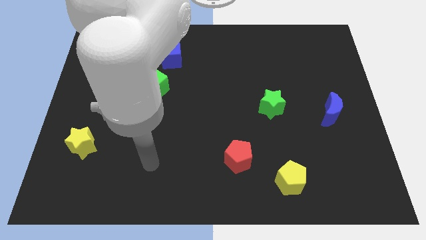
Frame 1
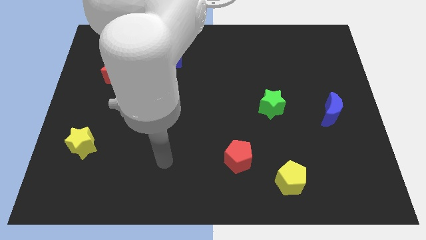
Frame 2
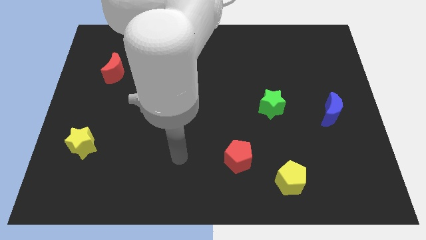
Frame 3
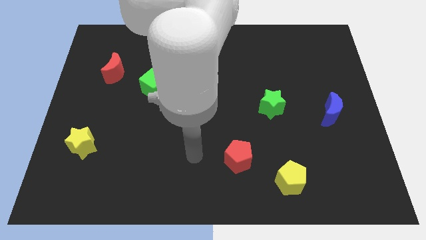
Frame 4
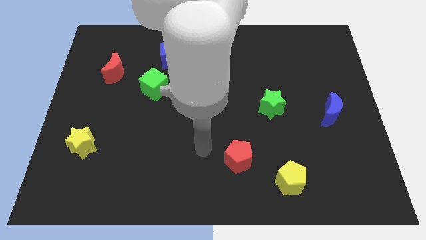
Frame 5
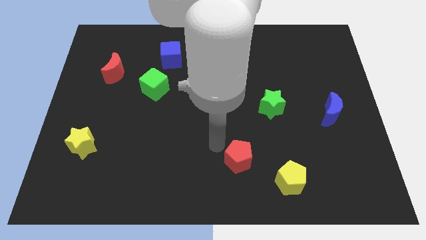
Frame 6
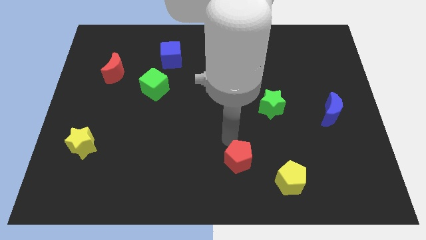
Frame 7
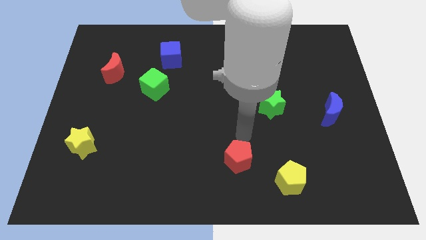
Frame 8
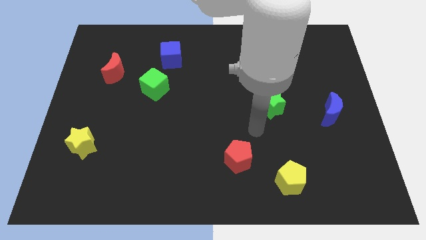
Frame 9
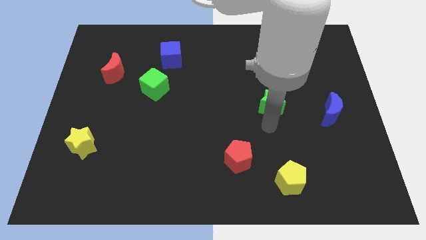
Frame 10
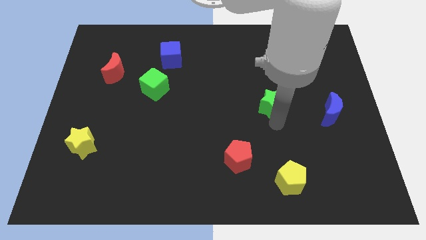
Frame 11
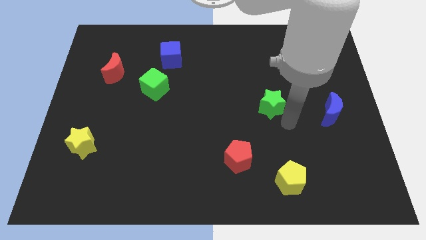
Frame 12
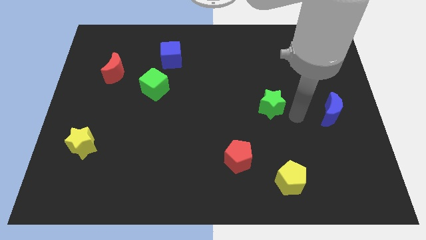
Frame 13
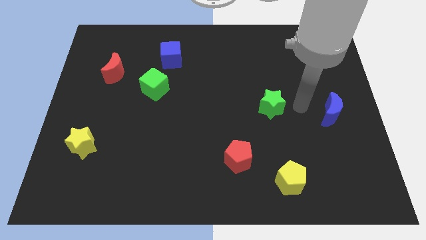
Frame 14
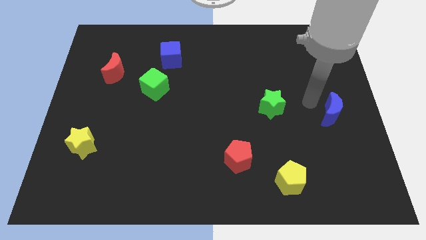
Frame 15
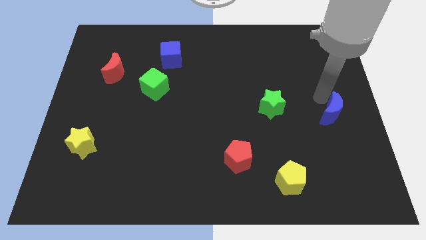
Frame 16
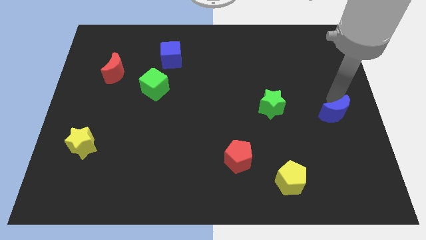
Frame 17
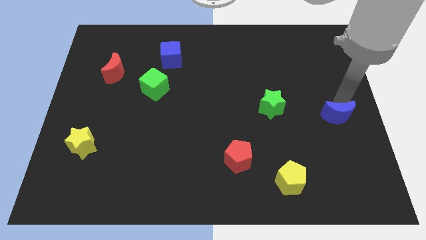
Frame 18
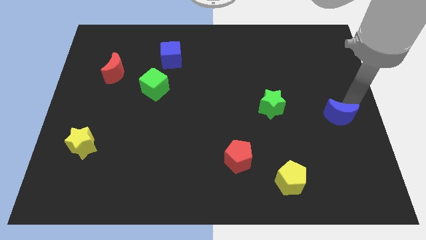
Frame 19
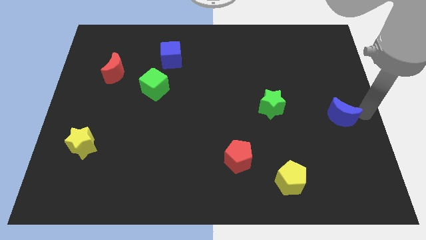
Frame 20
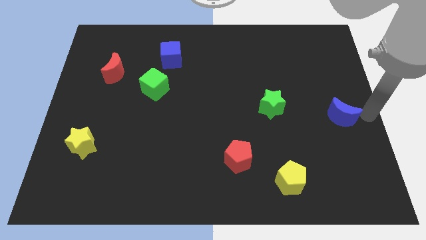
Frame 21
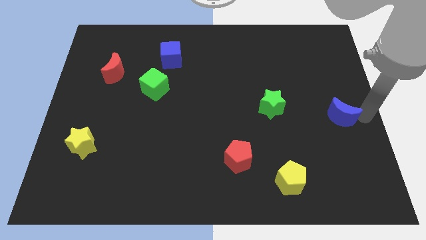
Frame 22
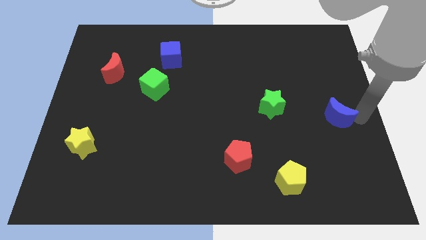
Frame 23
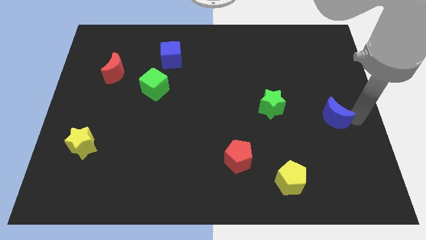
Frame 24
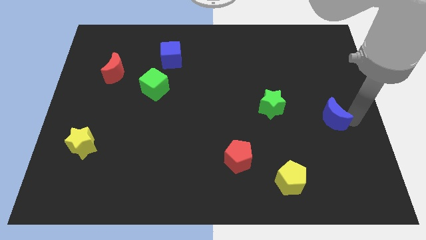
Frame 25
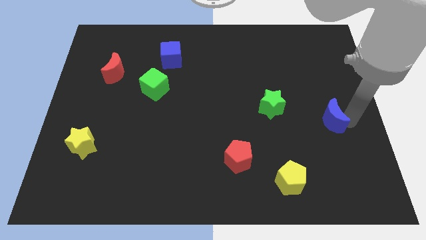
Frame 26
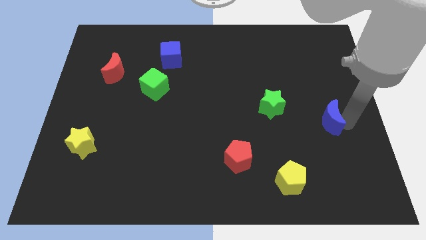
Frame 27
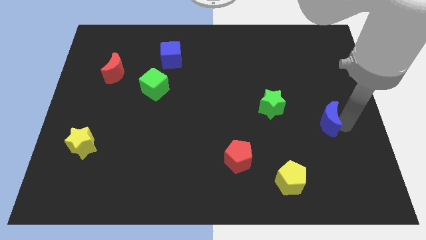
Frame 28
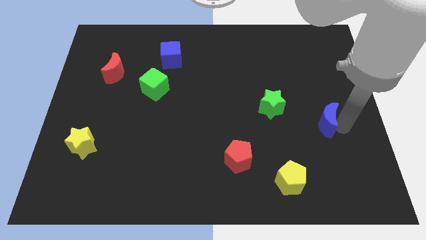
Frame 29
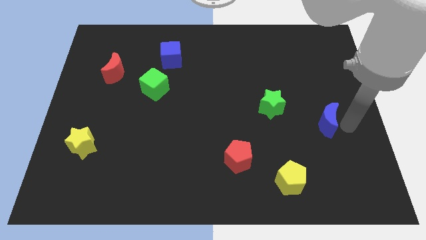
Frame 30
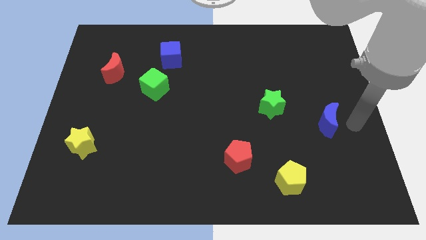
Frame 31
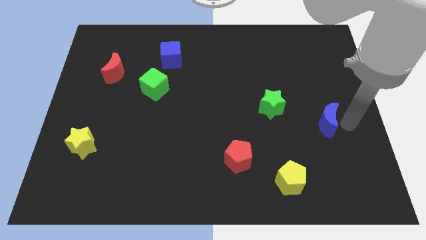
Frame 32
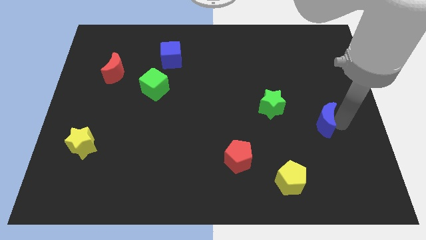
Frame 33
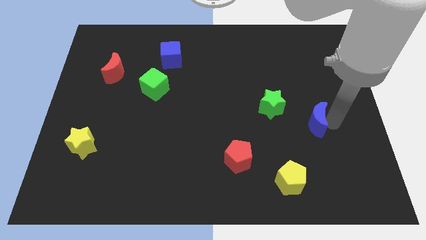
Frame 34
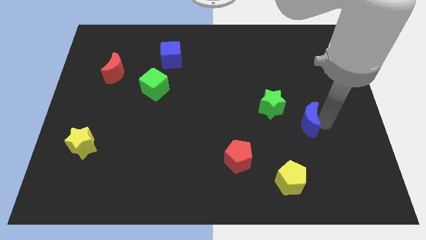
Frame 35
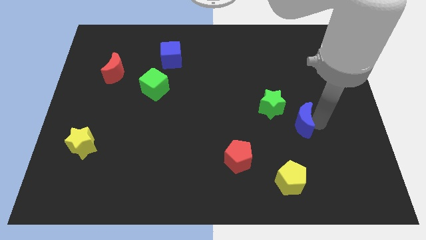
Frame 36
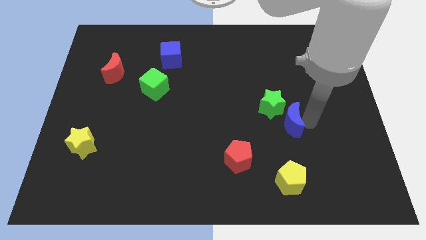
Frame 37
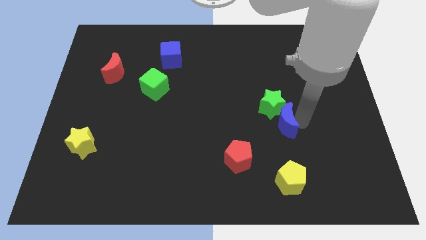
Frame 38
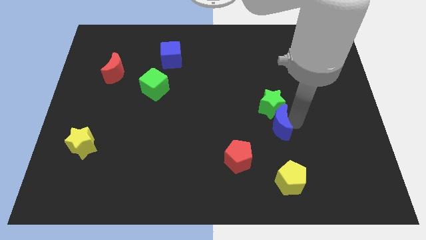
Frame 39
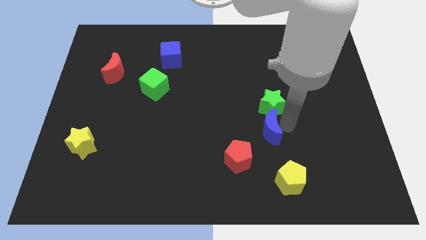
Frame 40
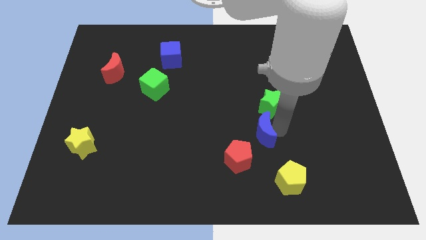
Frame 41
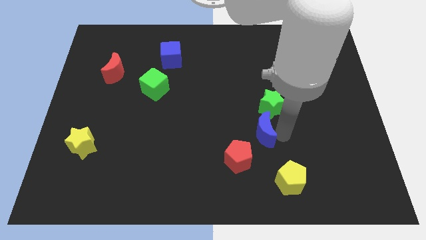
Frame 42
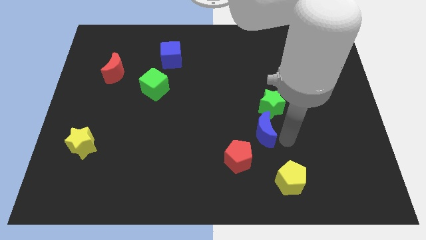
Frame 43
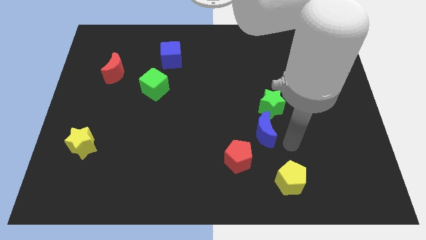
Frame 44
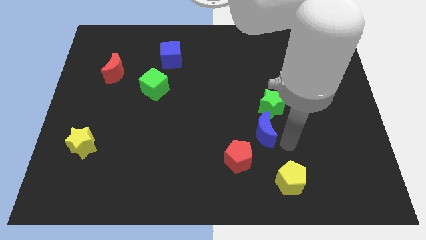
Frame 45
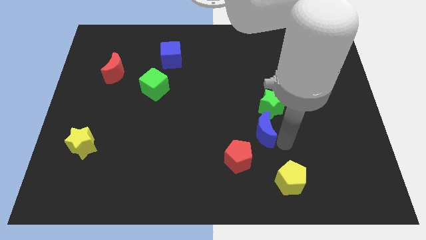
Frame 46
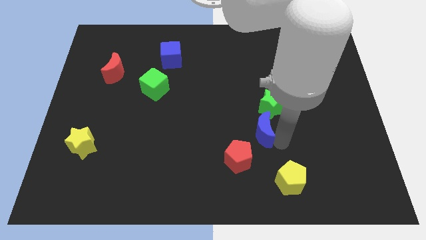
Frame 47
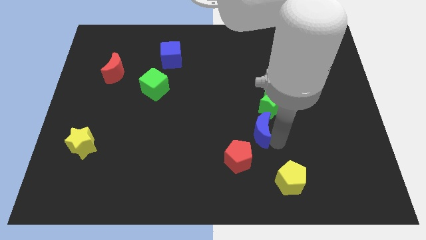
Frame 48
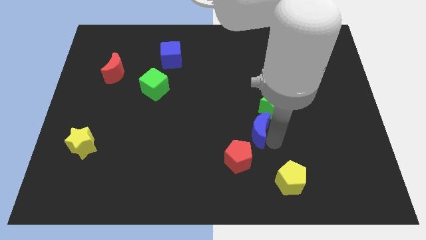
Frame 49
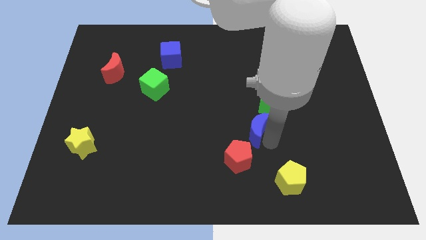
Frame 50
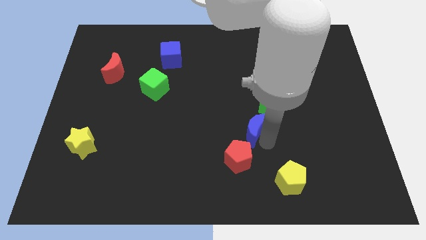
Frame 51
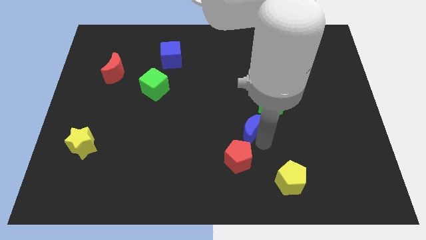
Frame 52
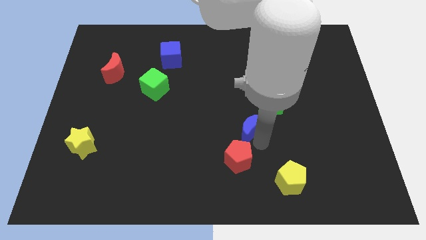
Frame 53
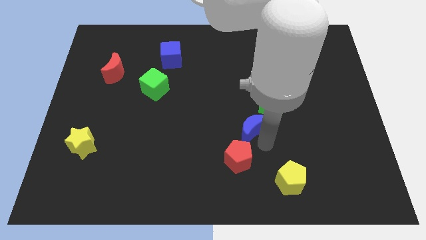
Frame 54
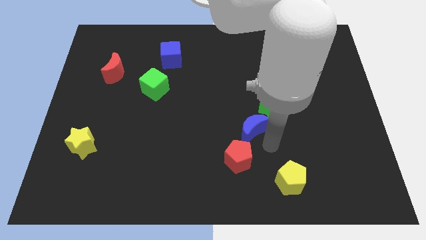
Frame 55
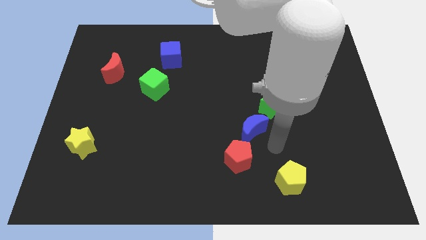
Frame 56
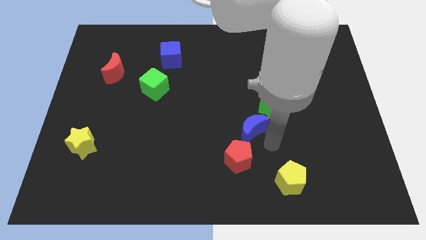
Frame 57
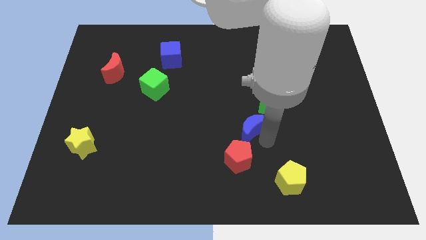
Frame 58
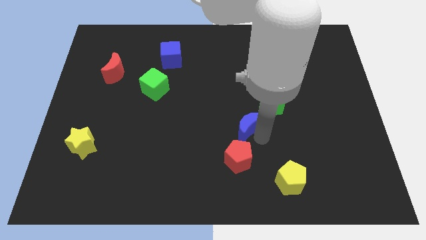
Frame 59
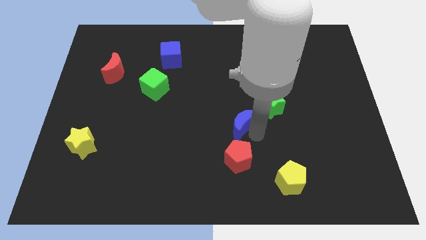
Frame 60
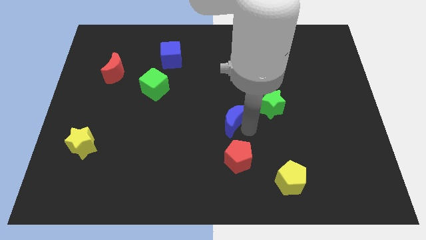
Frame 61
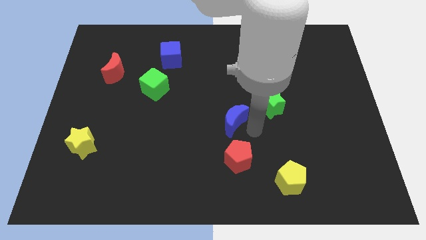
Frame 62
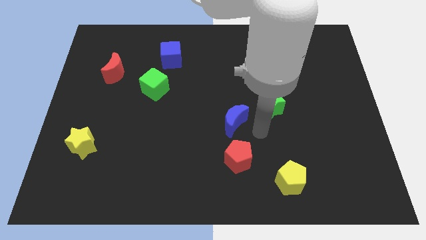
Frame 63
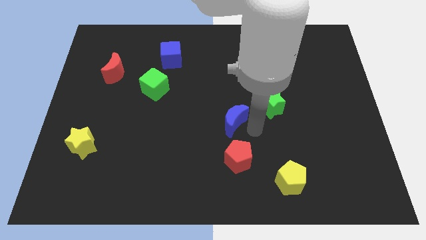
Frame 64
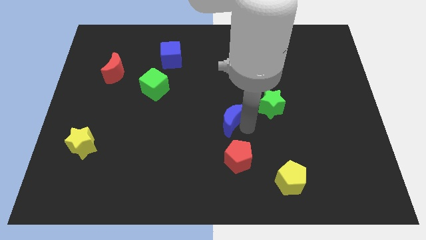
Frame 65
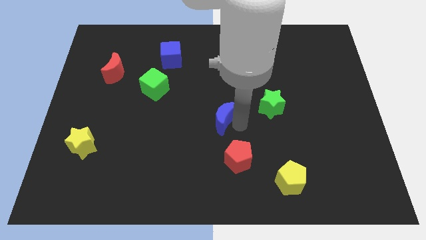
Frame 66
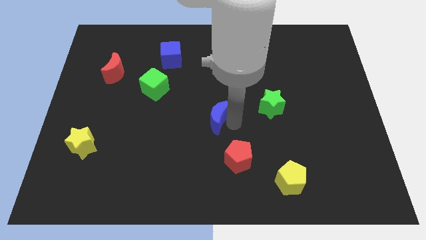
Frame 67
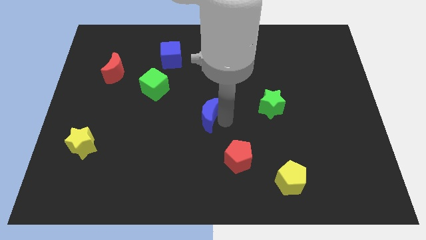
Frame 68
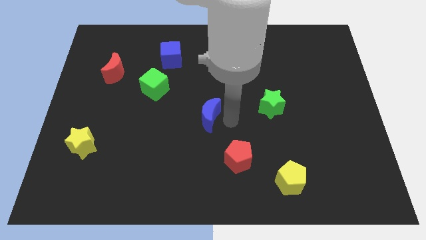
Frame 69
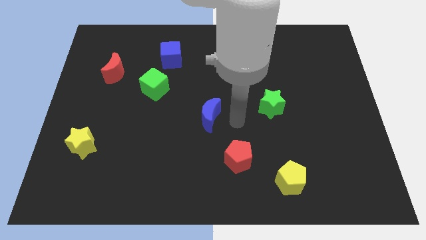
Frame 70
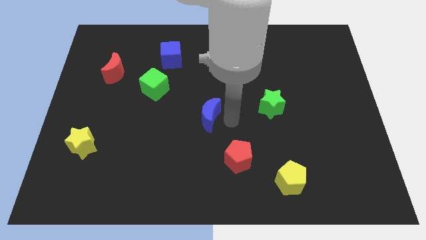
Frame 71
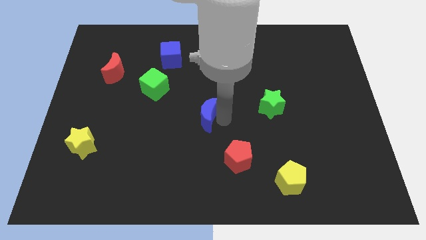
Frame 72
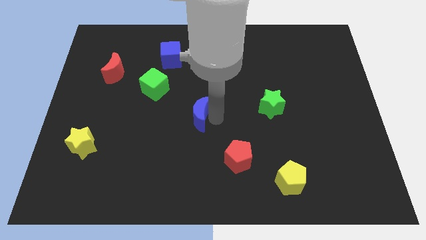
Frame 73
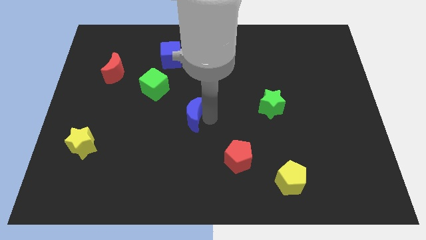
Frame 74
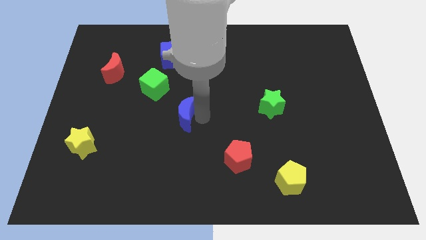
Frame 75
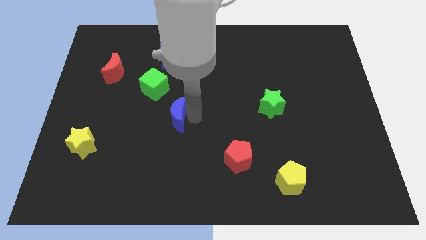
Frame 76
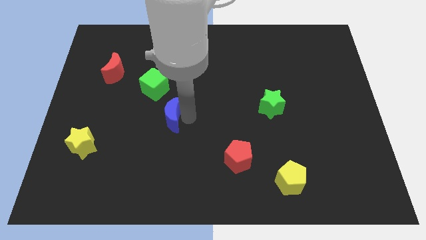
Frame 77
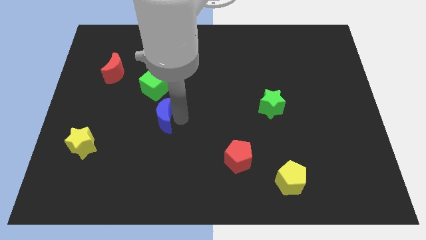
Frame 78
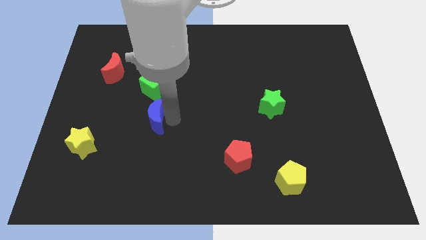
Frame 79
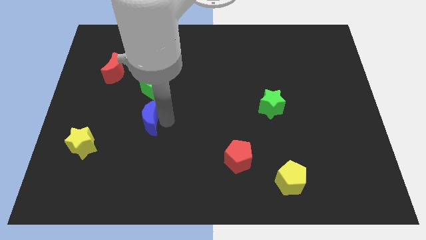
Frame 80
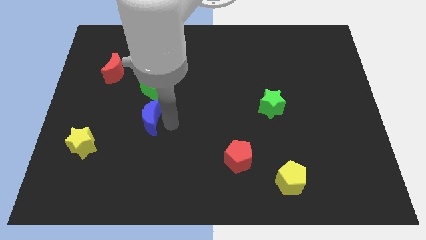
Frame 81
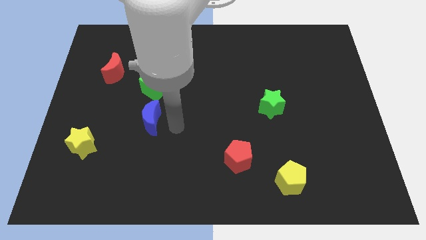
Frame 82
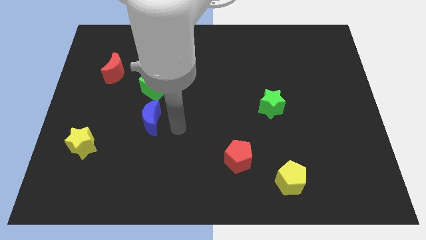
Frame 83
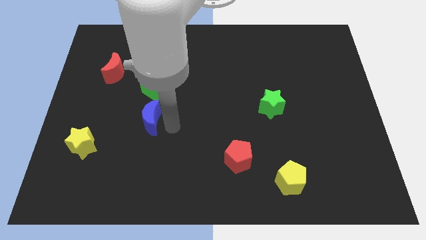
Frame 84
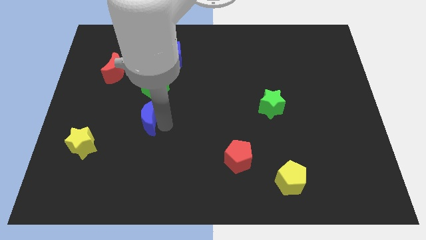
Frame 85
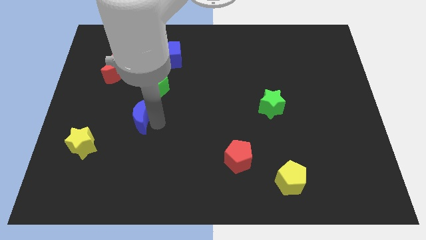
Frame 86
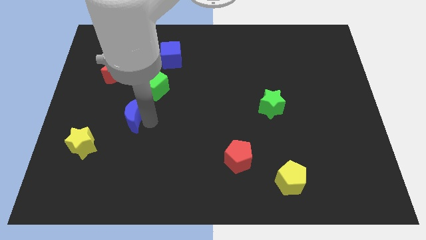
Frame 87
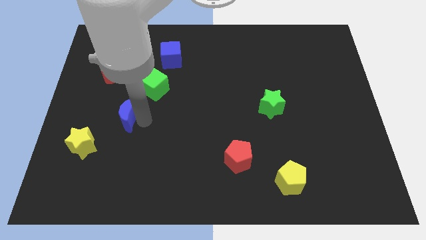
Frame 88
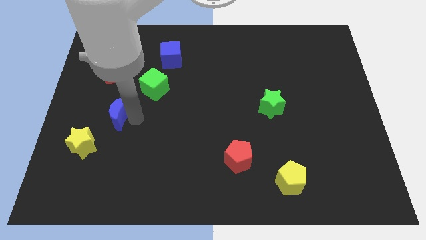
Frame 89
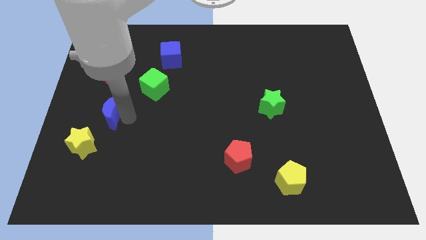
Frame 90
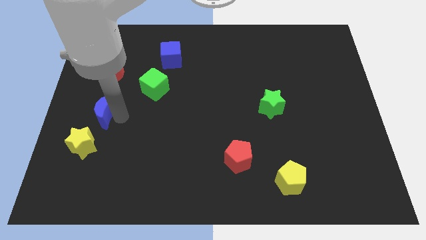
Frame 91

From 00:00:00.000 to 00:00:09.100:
push the blue moon above the yellow star
